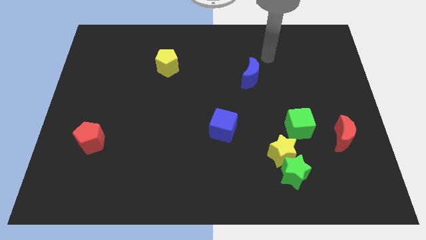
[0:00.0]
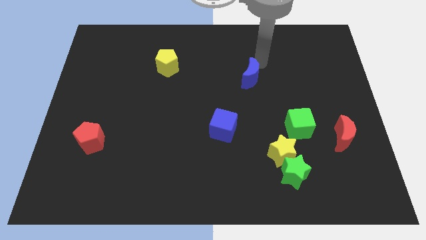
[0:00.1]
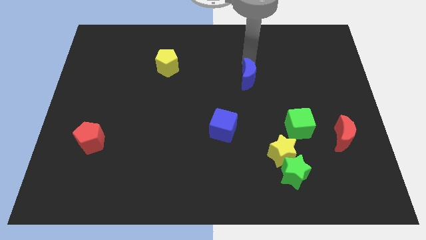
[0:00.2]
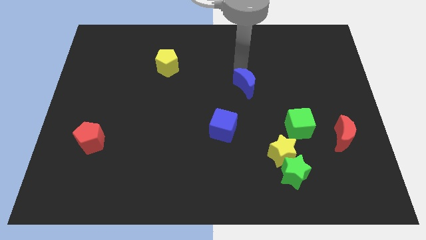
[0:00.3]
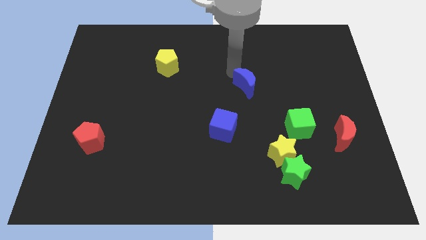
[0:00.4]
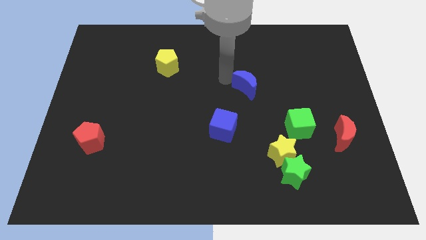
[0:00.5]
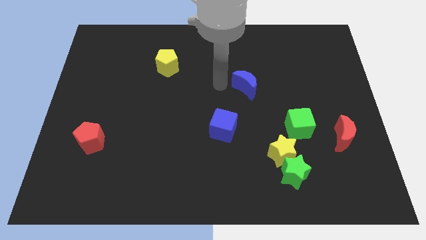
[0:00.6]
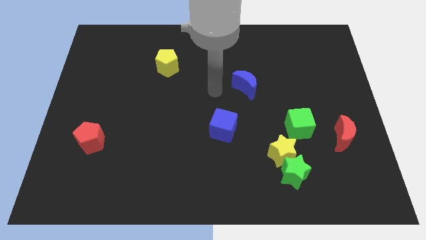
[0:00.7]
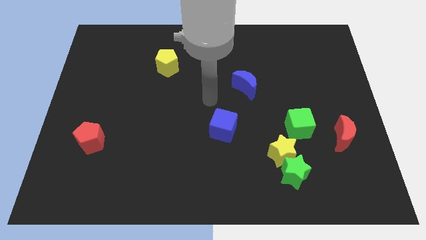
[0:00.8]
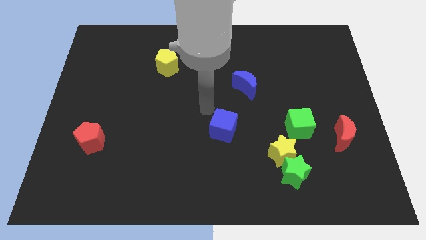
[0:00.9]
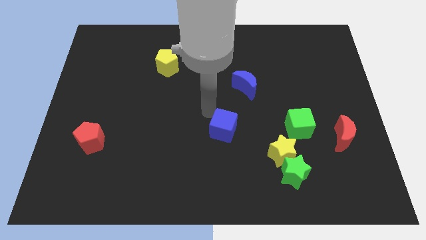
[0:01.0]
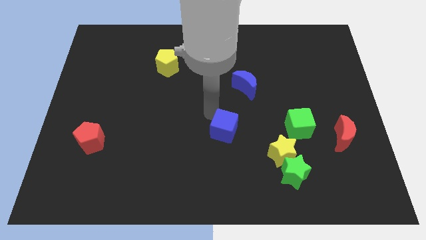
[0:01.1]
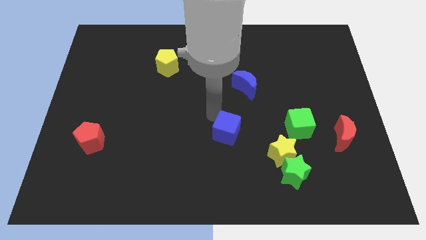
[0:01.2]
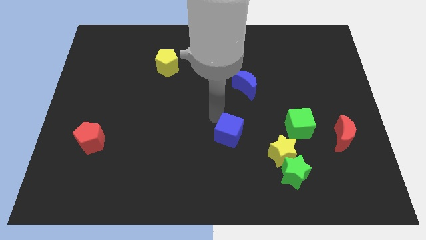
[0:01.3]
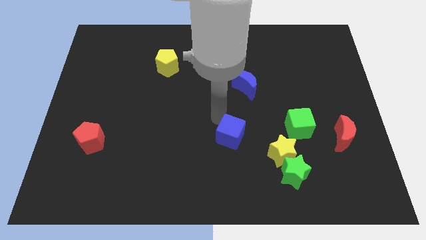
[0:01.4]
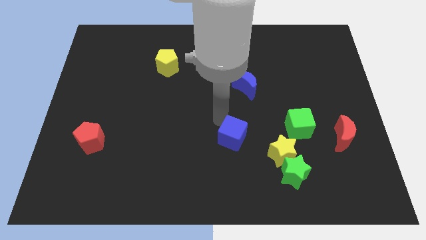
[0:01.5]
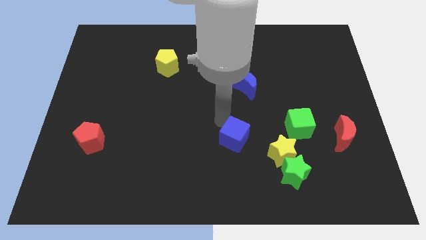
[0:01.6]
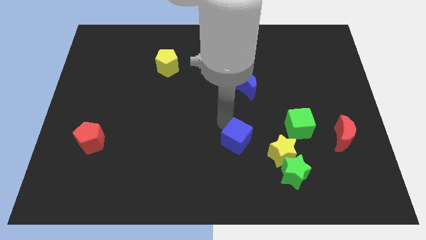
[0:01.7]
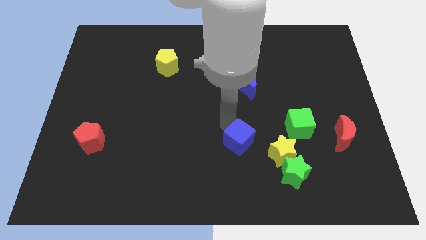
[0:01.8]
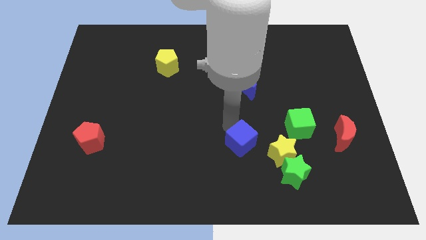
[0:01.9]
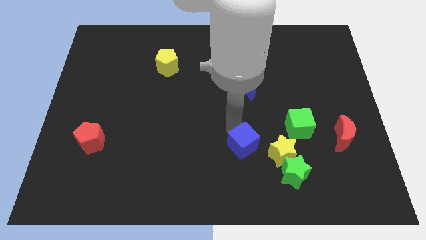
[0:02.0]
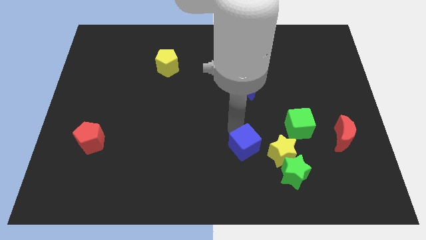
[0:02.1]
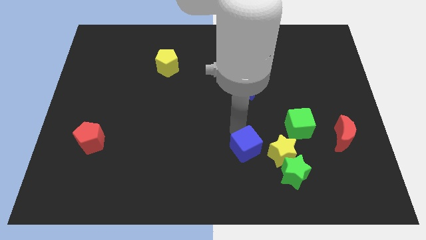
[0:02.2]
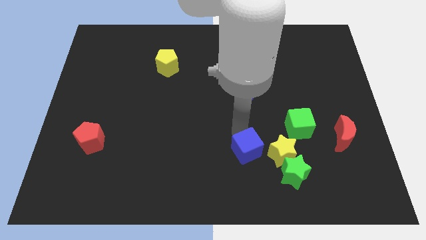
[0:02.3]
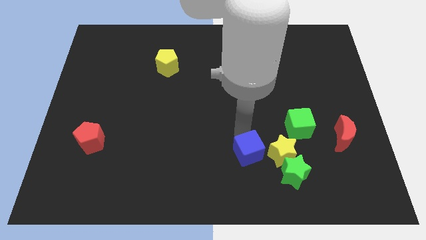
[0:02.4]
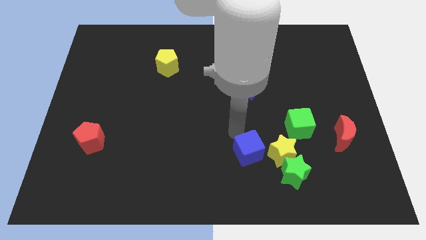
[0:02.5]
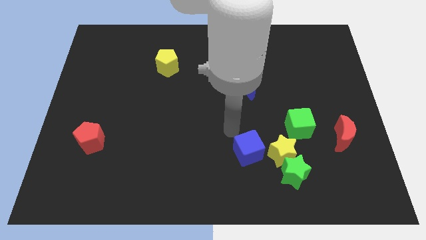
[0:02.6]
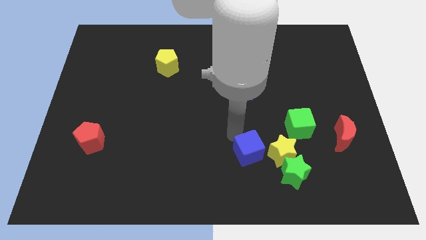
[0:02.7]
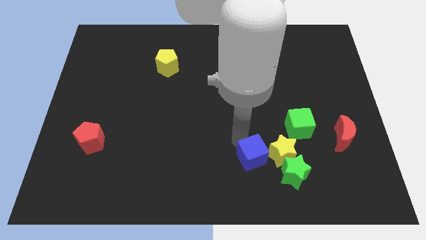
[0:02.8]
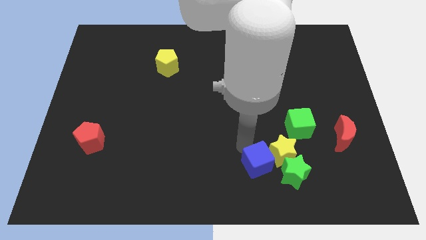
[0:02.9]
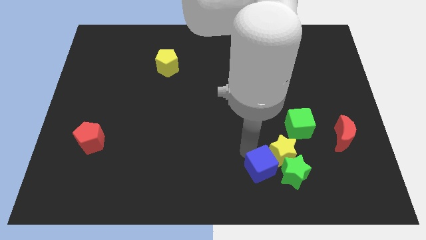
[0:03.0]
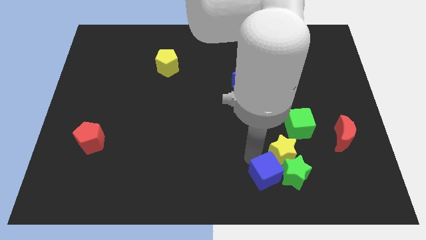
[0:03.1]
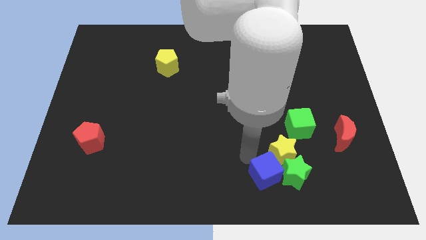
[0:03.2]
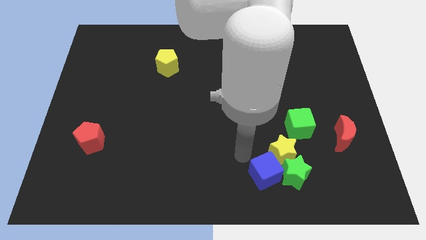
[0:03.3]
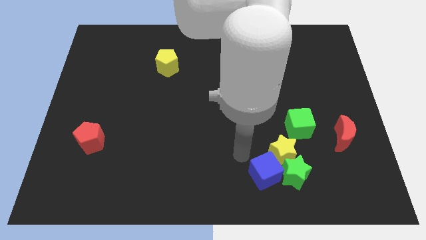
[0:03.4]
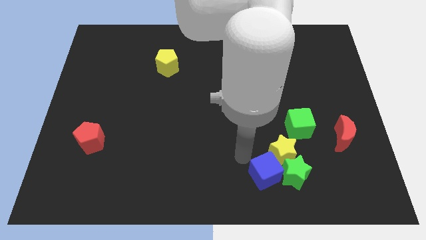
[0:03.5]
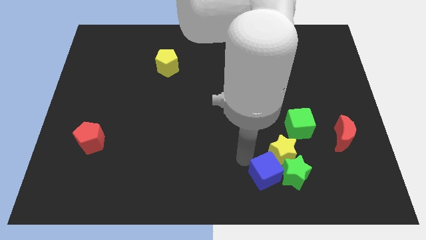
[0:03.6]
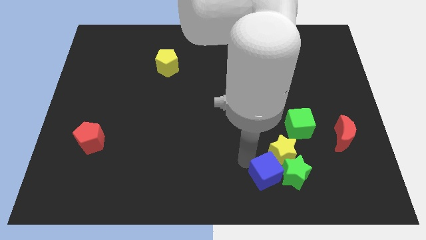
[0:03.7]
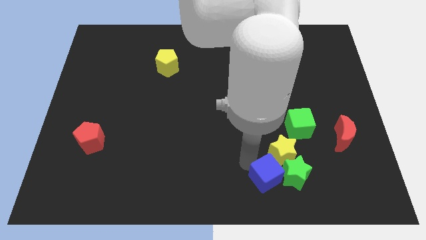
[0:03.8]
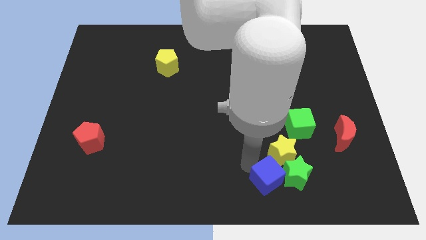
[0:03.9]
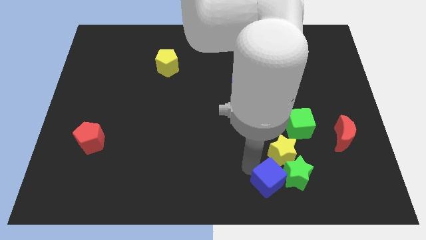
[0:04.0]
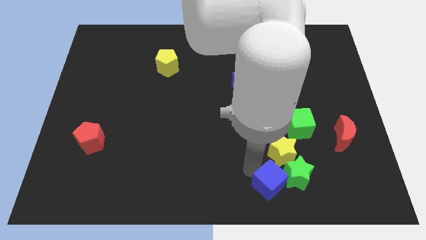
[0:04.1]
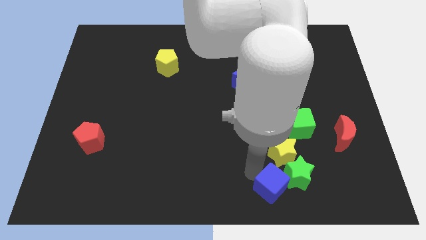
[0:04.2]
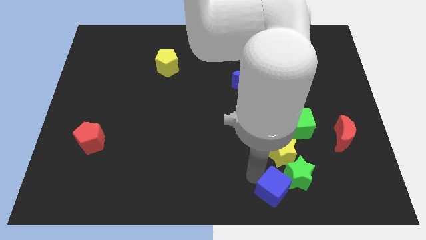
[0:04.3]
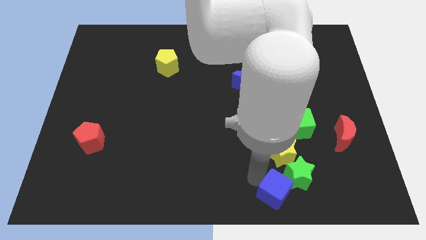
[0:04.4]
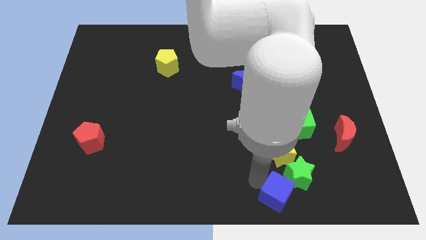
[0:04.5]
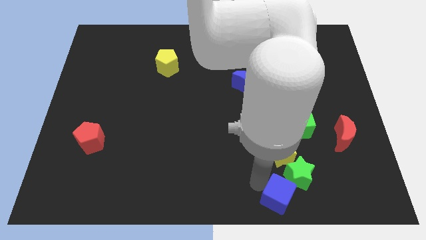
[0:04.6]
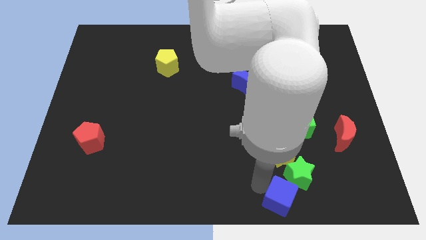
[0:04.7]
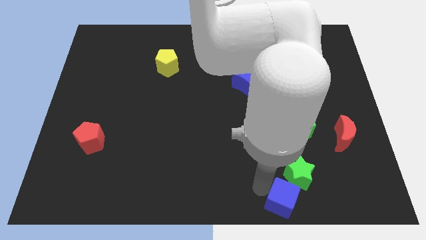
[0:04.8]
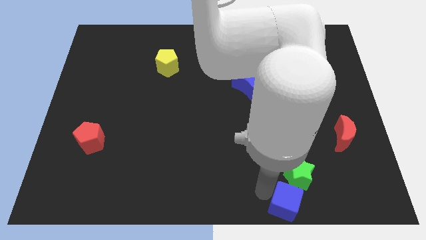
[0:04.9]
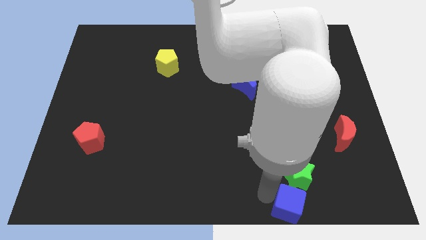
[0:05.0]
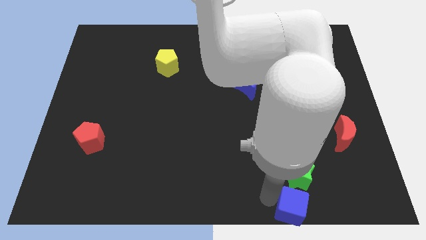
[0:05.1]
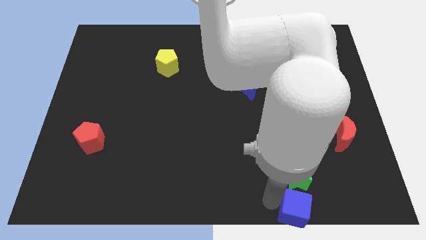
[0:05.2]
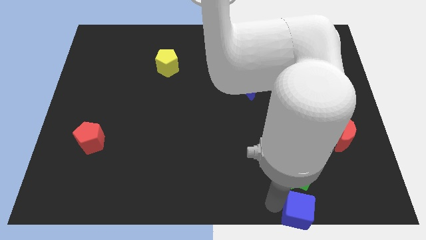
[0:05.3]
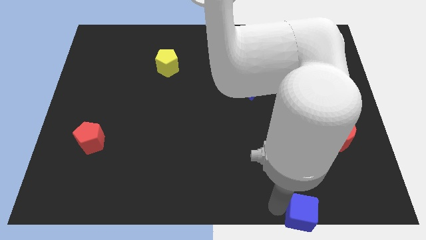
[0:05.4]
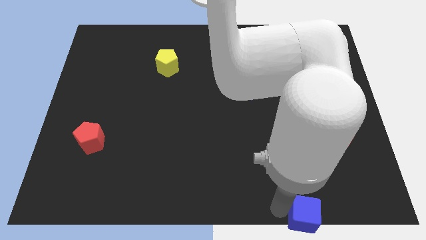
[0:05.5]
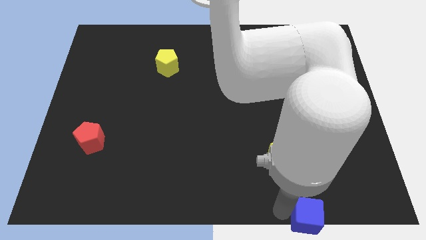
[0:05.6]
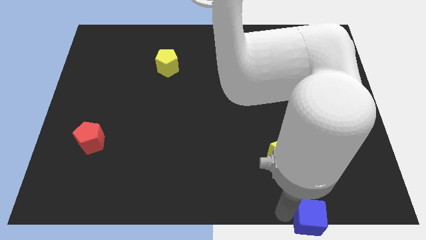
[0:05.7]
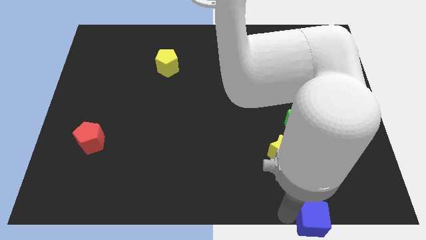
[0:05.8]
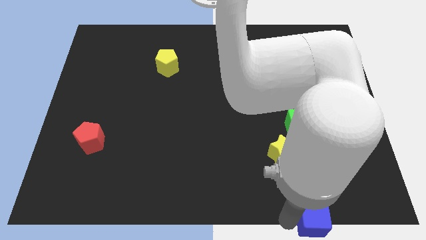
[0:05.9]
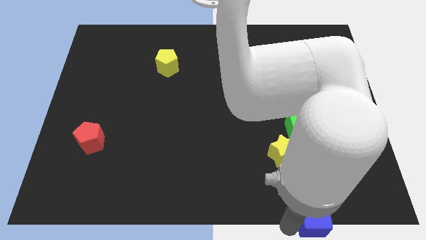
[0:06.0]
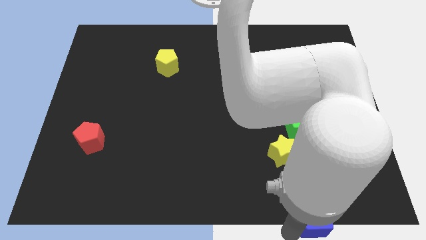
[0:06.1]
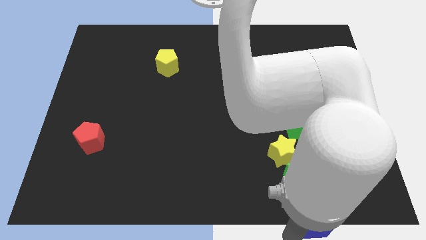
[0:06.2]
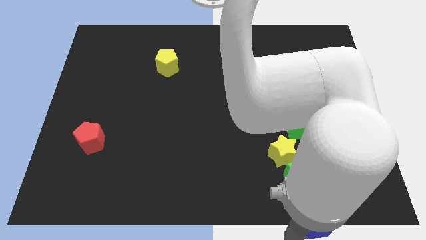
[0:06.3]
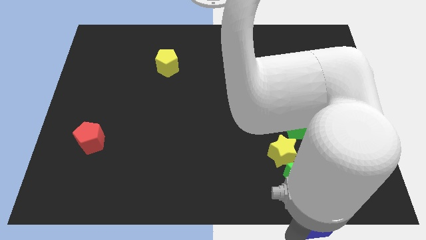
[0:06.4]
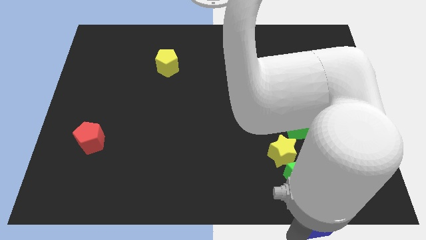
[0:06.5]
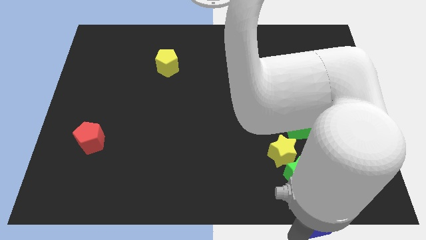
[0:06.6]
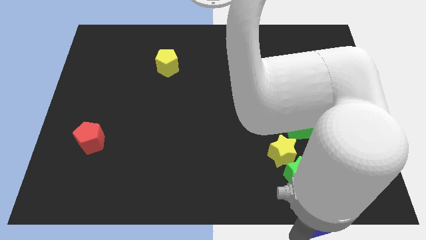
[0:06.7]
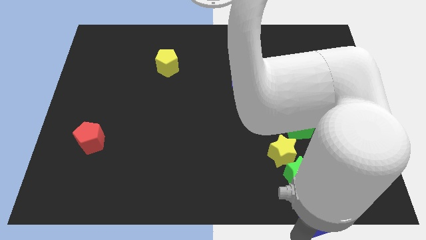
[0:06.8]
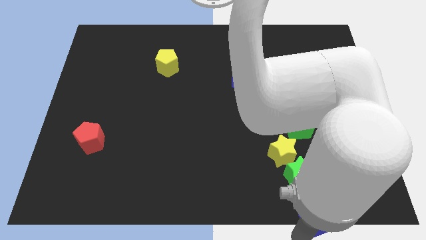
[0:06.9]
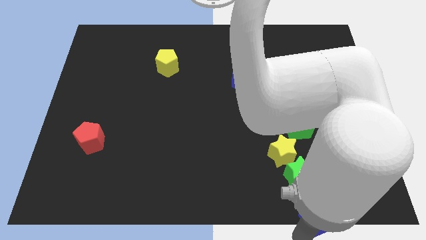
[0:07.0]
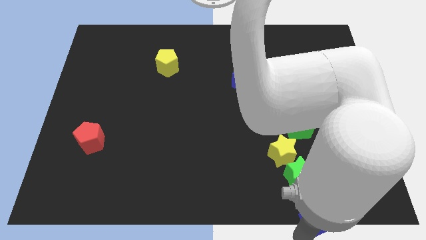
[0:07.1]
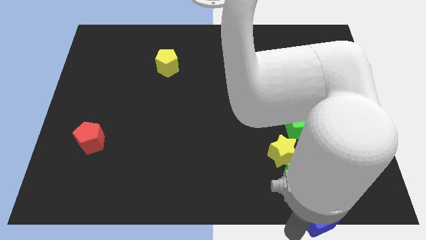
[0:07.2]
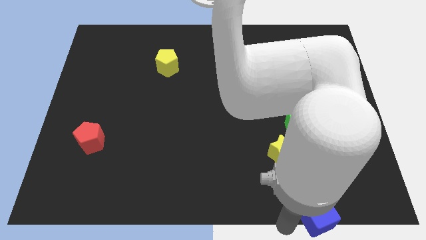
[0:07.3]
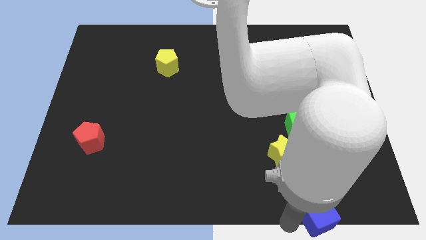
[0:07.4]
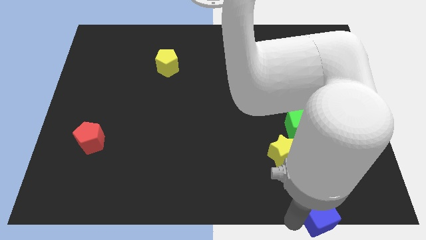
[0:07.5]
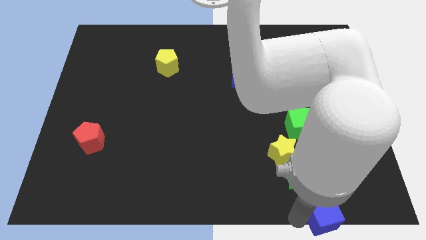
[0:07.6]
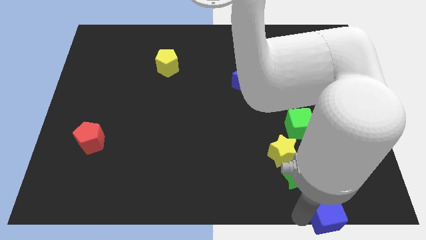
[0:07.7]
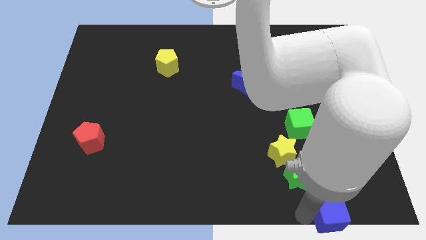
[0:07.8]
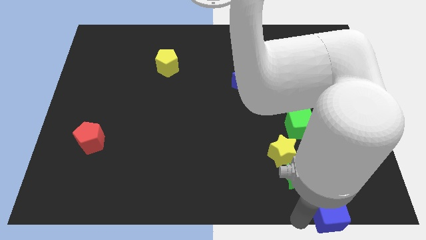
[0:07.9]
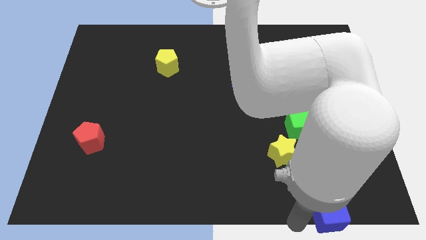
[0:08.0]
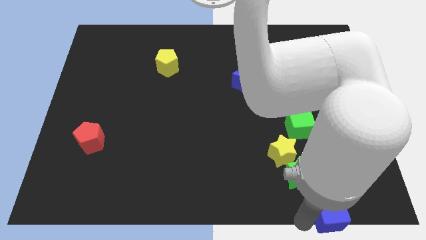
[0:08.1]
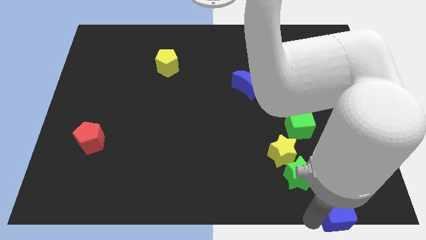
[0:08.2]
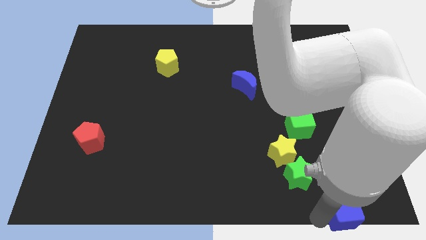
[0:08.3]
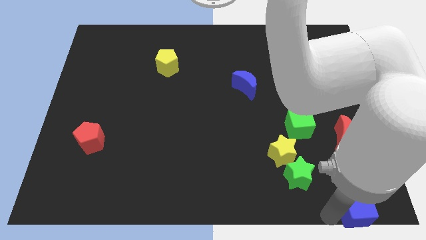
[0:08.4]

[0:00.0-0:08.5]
move the blue cube to the bottom right of the board
